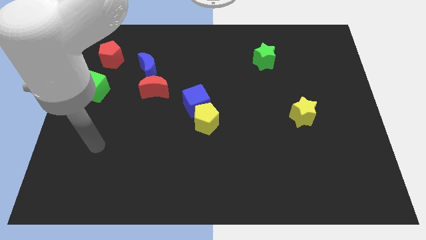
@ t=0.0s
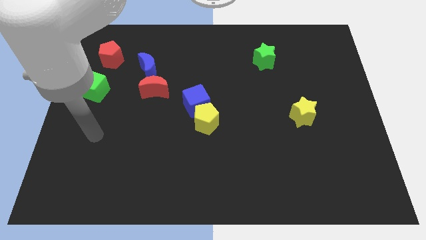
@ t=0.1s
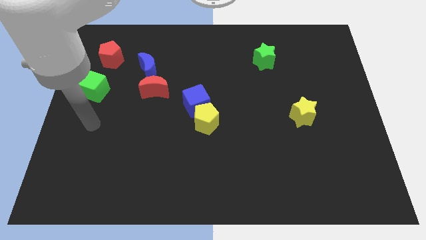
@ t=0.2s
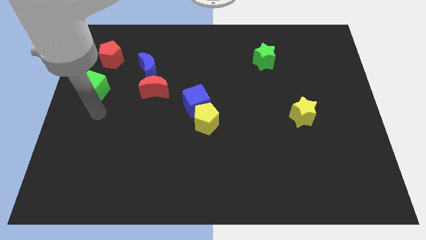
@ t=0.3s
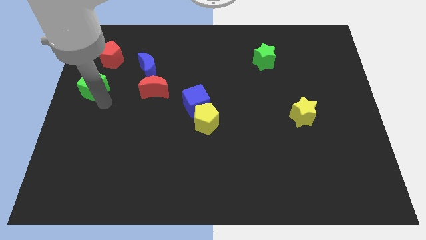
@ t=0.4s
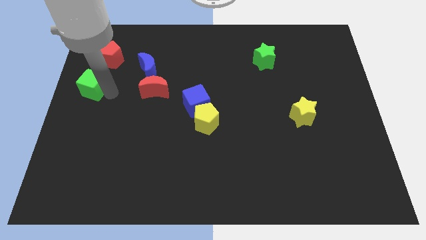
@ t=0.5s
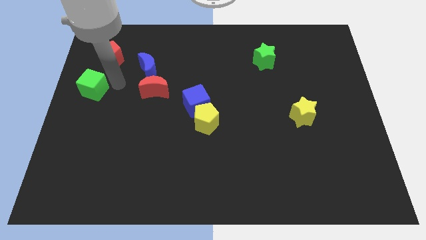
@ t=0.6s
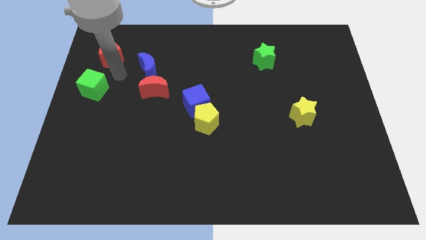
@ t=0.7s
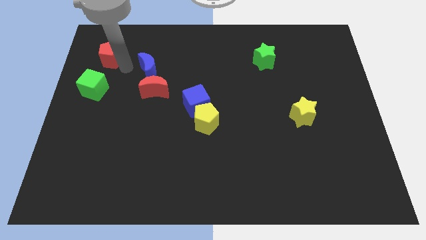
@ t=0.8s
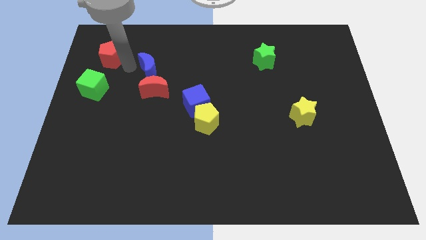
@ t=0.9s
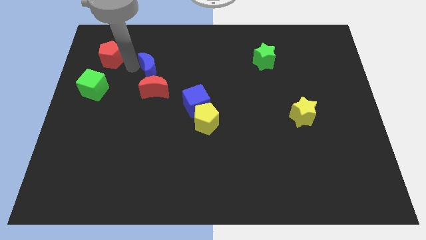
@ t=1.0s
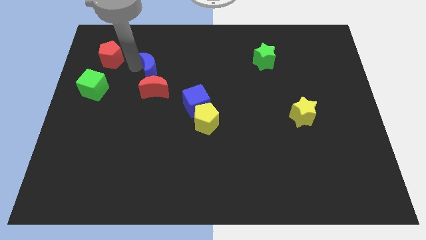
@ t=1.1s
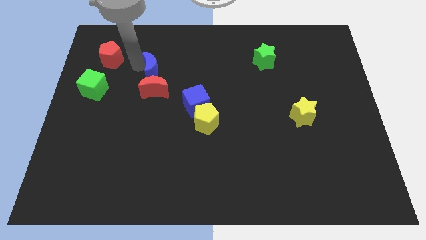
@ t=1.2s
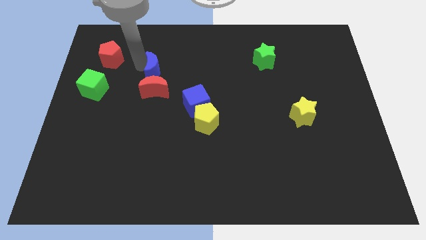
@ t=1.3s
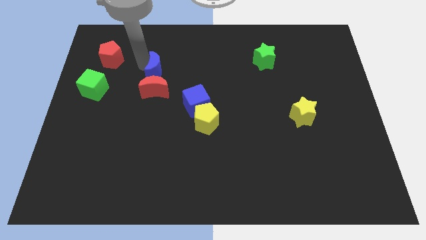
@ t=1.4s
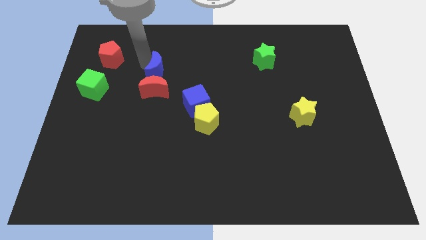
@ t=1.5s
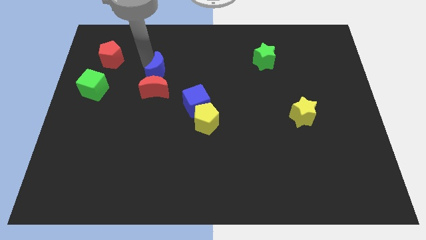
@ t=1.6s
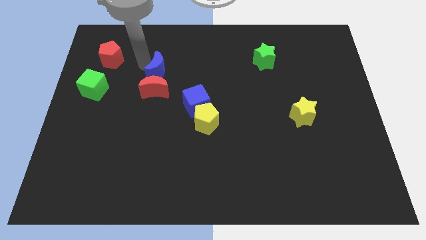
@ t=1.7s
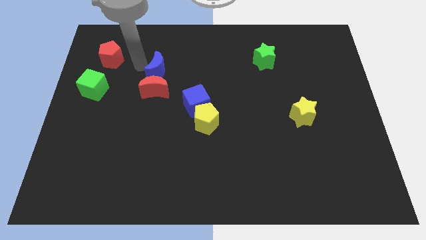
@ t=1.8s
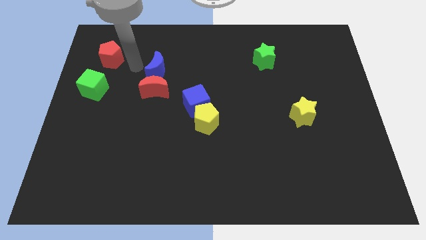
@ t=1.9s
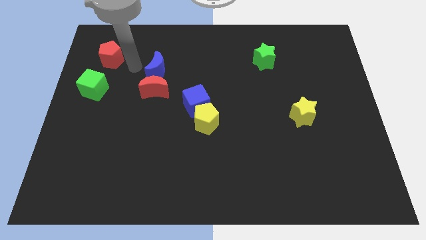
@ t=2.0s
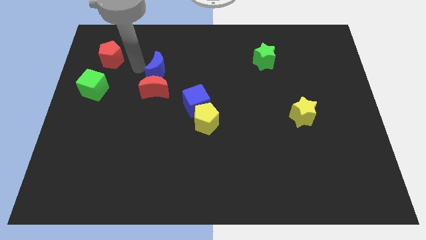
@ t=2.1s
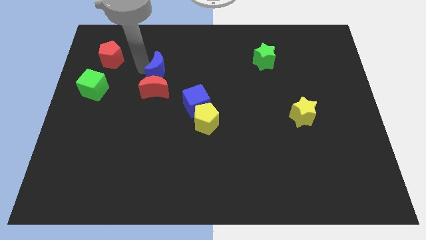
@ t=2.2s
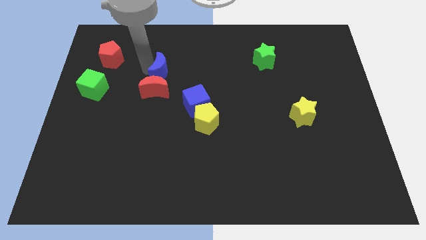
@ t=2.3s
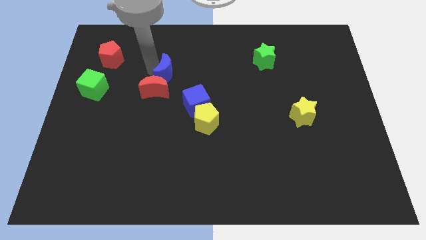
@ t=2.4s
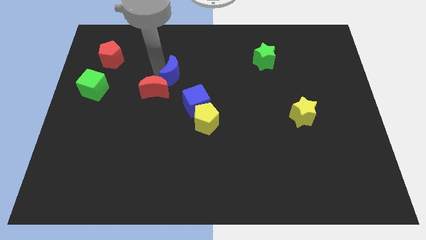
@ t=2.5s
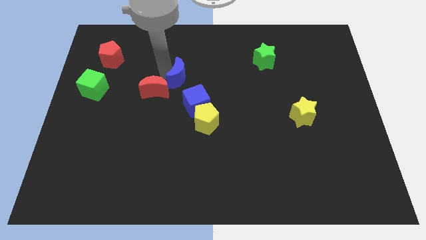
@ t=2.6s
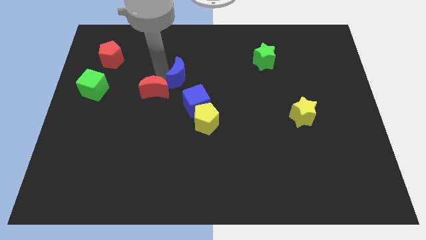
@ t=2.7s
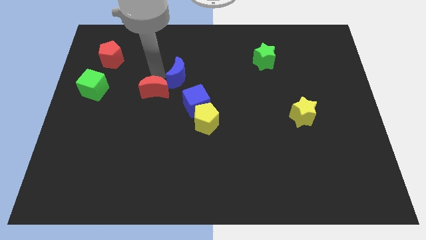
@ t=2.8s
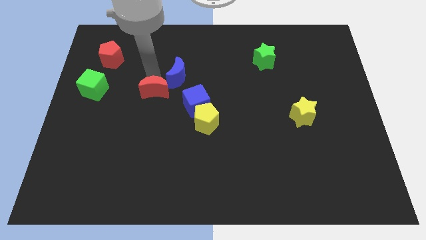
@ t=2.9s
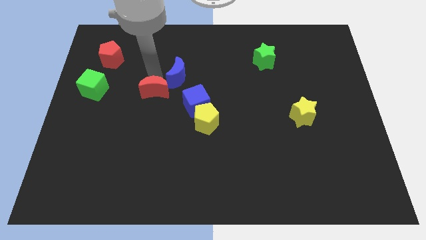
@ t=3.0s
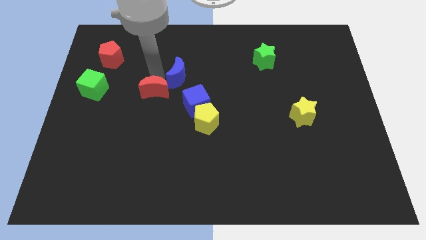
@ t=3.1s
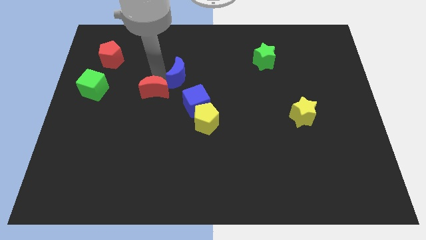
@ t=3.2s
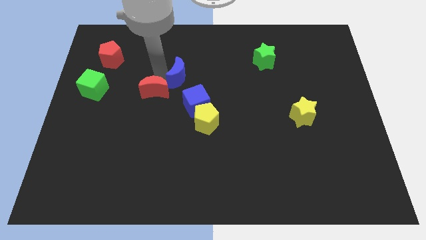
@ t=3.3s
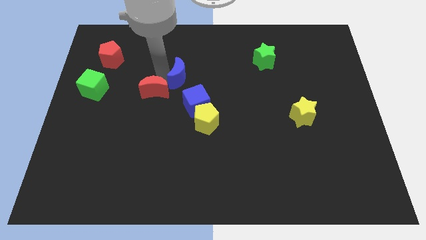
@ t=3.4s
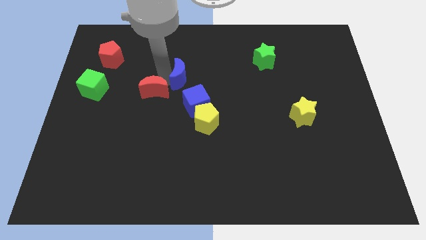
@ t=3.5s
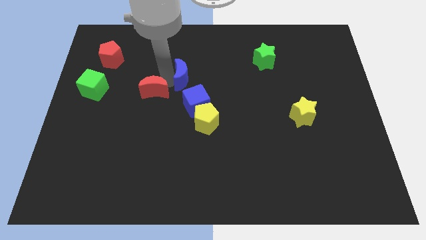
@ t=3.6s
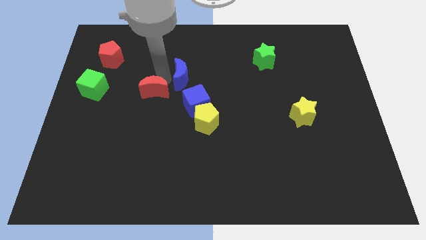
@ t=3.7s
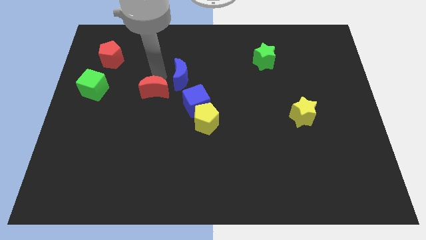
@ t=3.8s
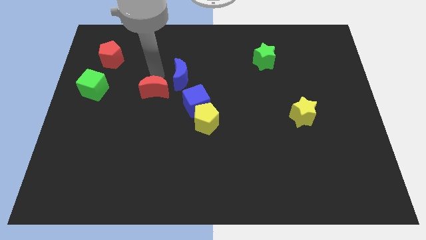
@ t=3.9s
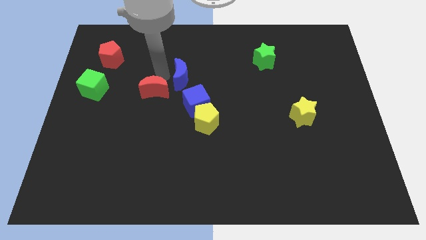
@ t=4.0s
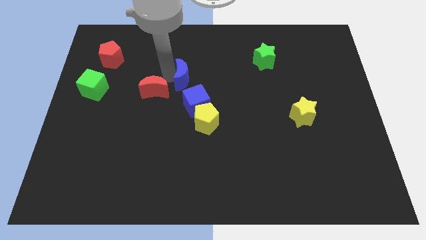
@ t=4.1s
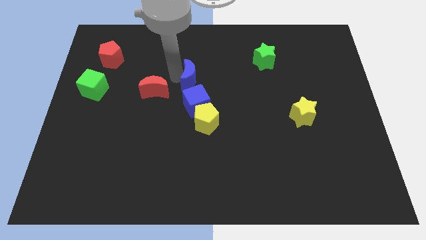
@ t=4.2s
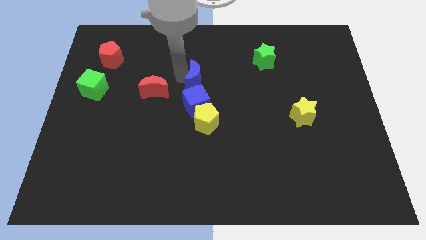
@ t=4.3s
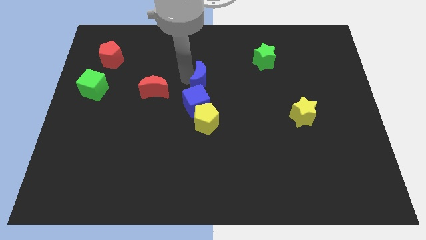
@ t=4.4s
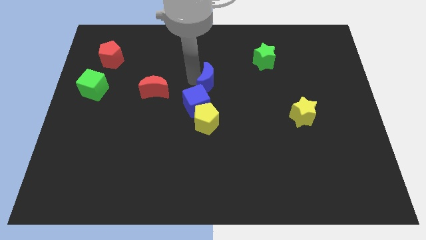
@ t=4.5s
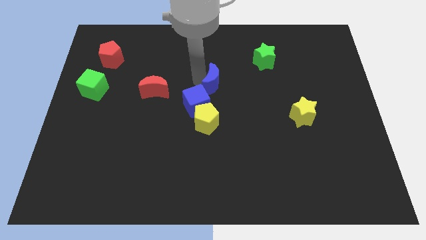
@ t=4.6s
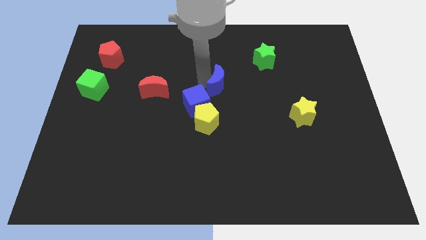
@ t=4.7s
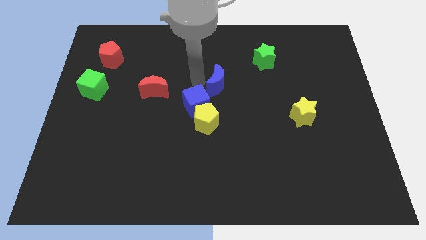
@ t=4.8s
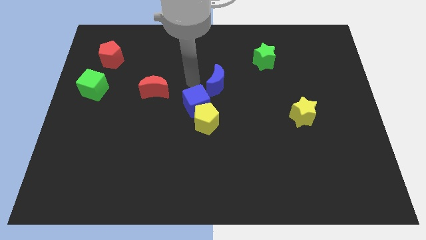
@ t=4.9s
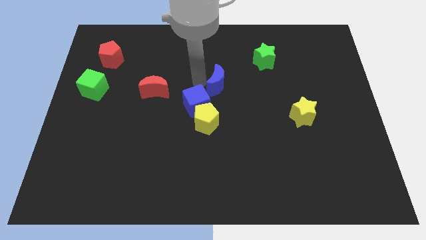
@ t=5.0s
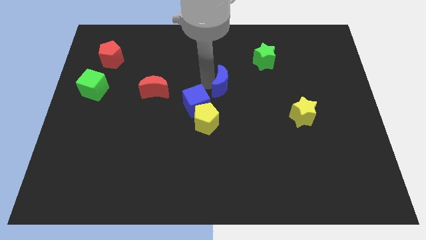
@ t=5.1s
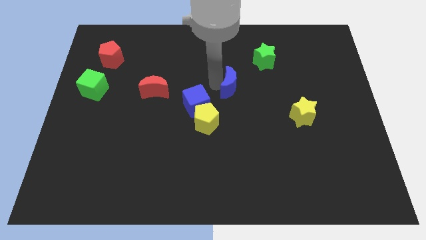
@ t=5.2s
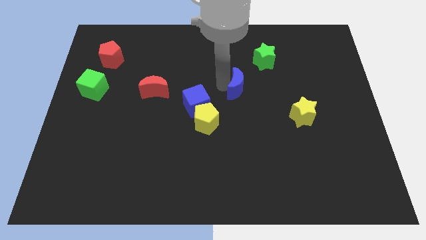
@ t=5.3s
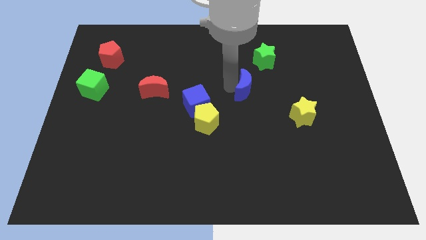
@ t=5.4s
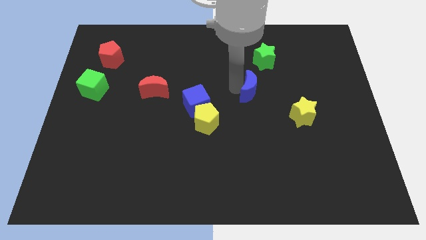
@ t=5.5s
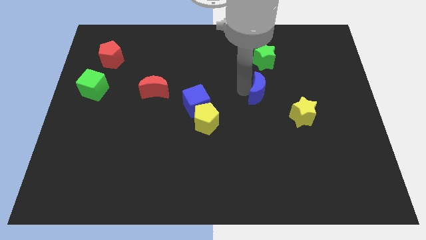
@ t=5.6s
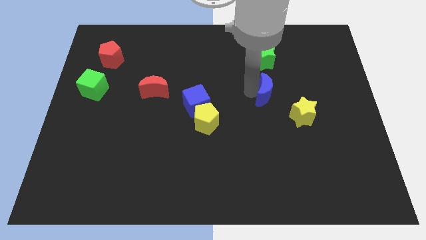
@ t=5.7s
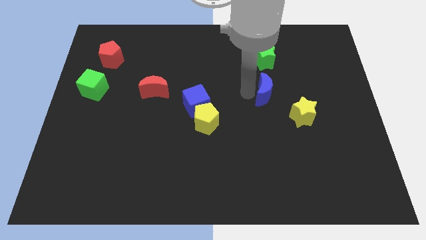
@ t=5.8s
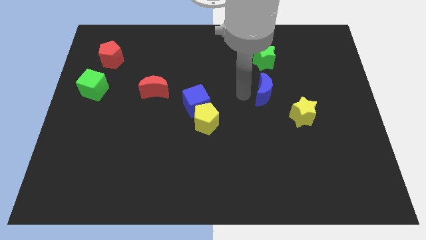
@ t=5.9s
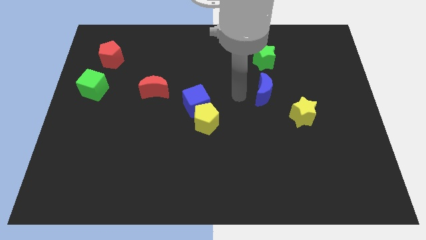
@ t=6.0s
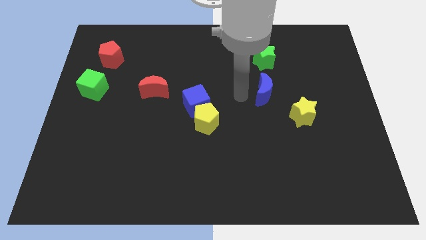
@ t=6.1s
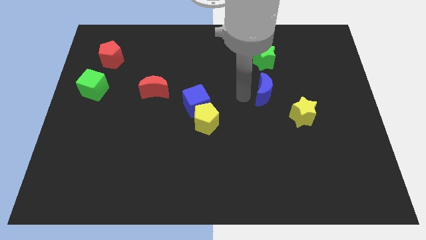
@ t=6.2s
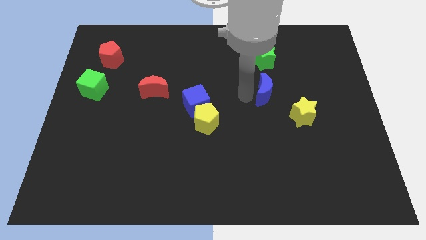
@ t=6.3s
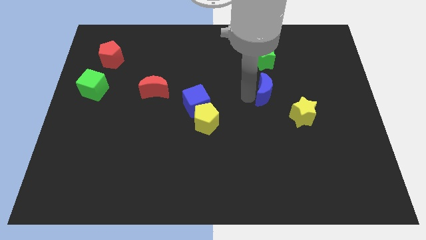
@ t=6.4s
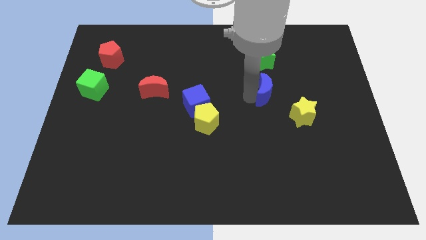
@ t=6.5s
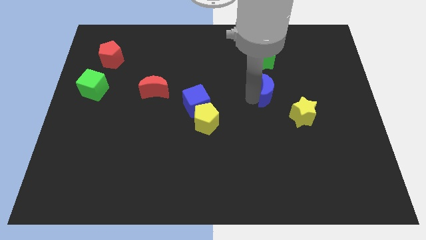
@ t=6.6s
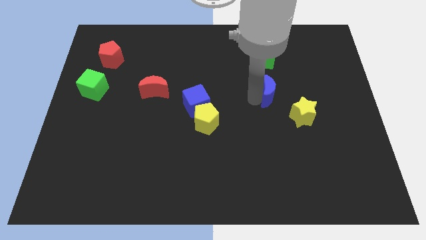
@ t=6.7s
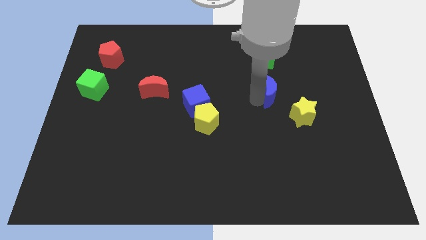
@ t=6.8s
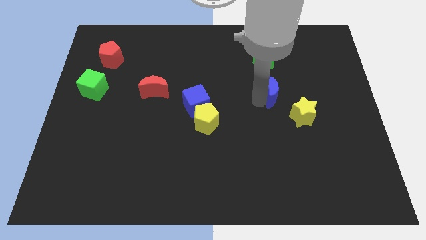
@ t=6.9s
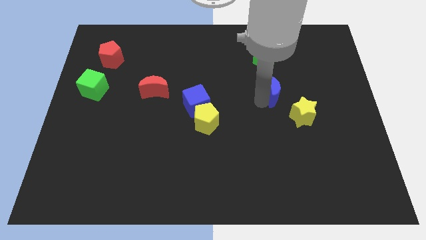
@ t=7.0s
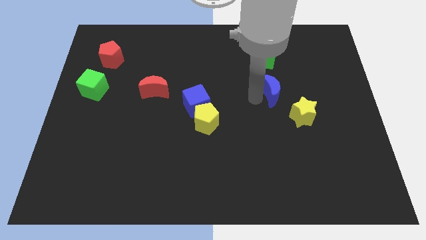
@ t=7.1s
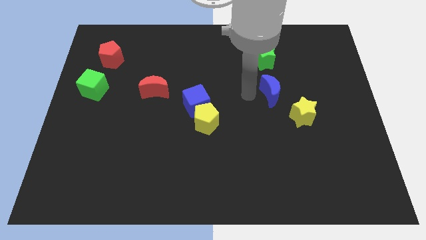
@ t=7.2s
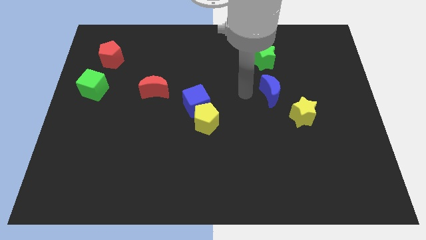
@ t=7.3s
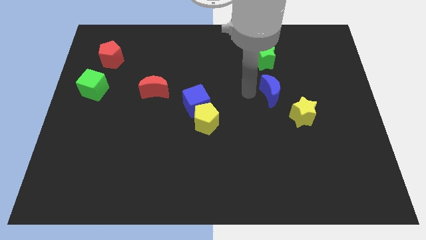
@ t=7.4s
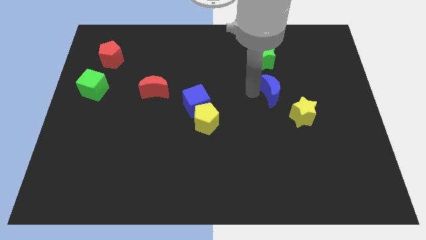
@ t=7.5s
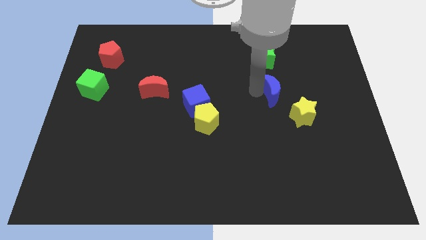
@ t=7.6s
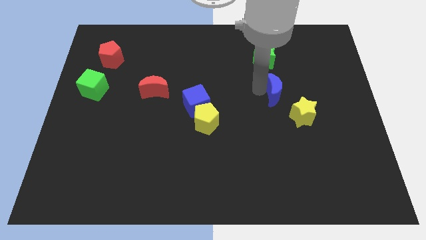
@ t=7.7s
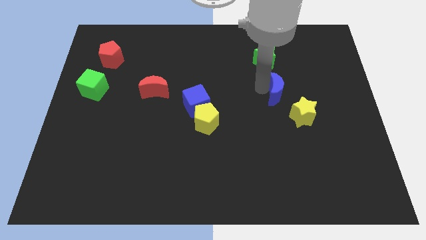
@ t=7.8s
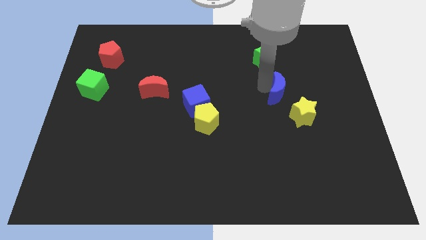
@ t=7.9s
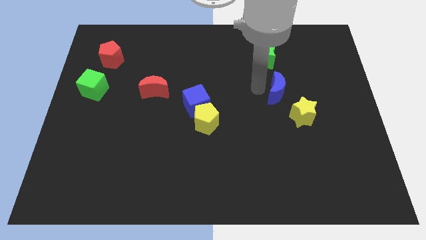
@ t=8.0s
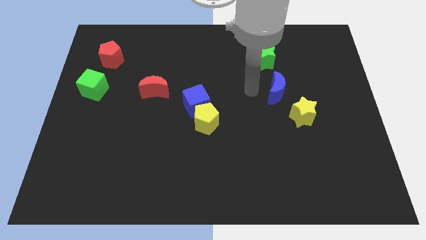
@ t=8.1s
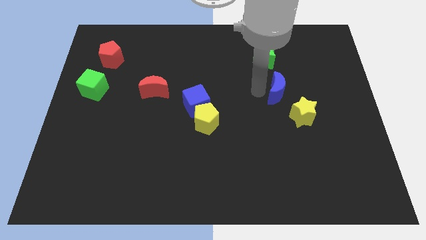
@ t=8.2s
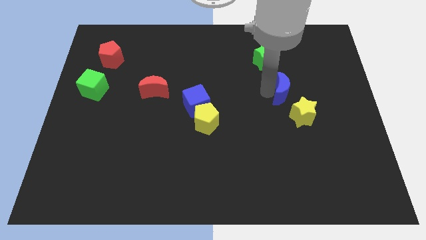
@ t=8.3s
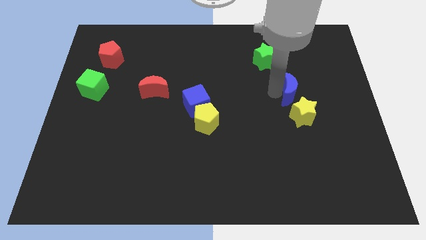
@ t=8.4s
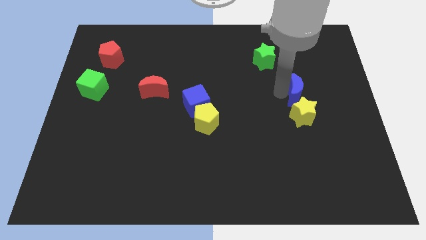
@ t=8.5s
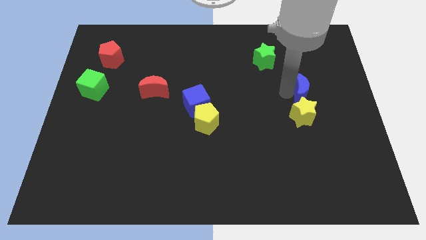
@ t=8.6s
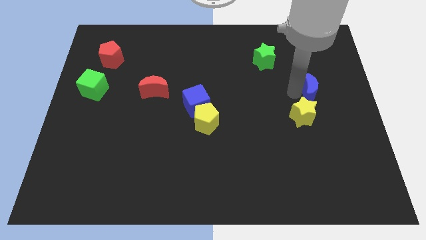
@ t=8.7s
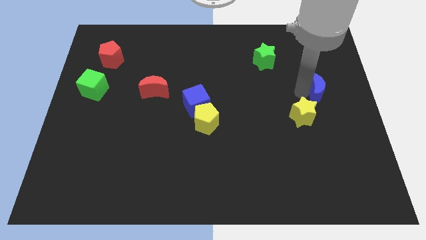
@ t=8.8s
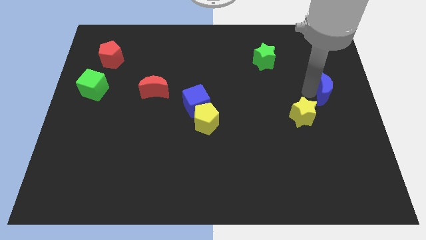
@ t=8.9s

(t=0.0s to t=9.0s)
slide the blue moon to the right side of the board
